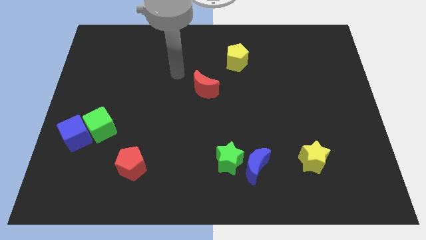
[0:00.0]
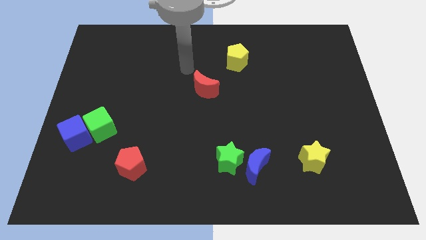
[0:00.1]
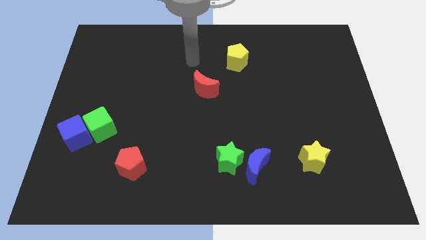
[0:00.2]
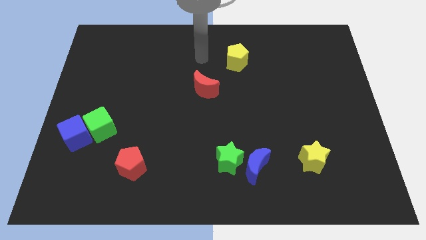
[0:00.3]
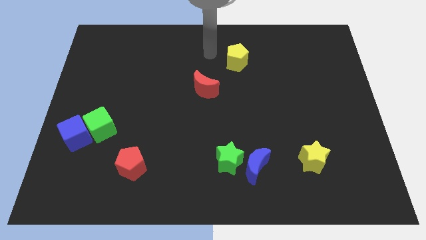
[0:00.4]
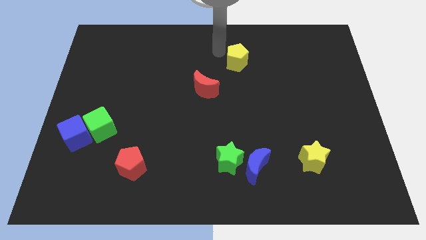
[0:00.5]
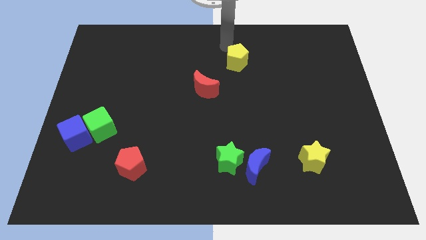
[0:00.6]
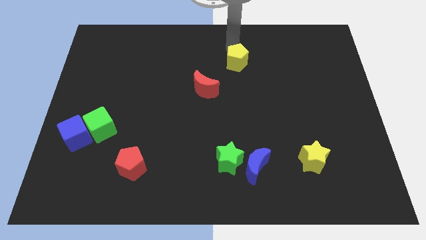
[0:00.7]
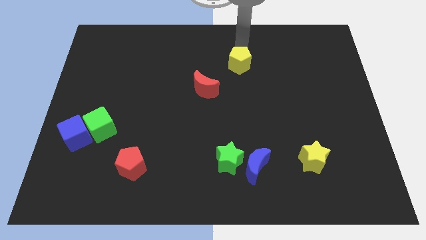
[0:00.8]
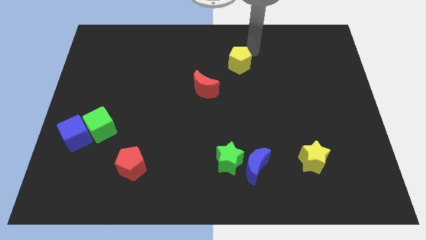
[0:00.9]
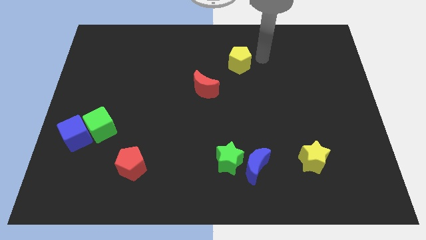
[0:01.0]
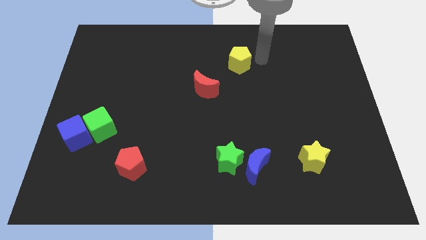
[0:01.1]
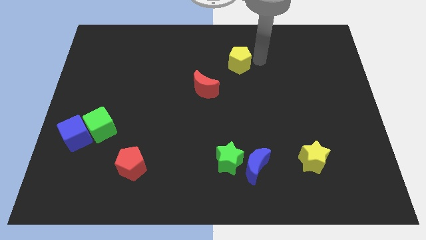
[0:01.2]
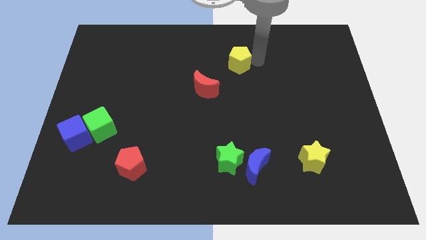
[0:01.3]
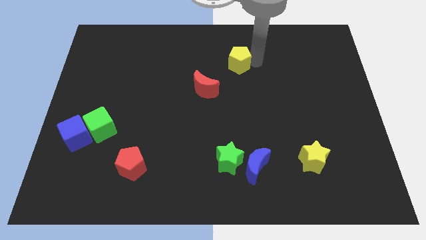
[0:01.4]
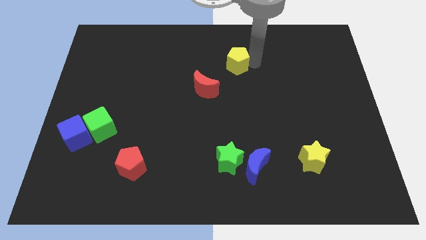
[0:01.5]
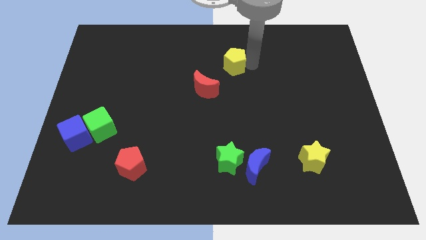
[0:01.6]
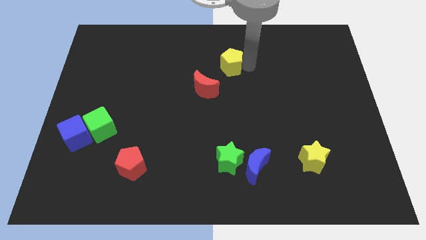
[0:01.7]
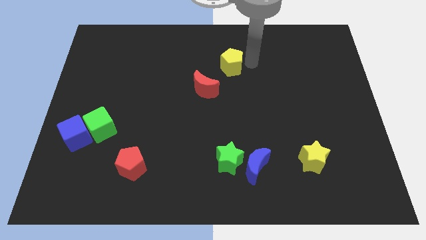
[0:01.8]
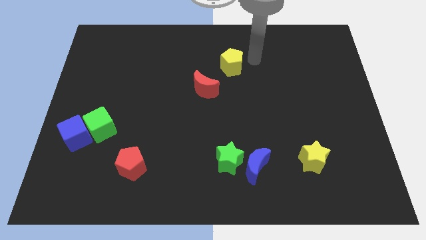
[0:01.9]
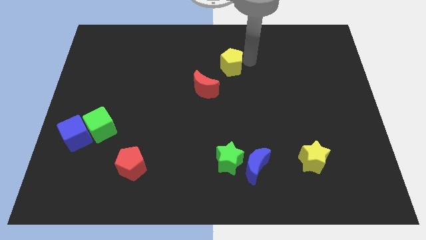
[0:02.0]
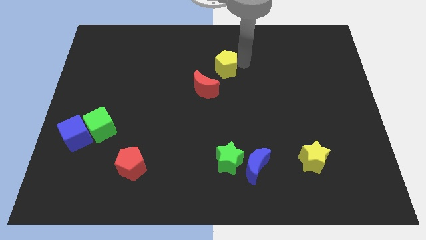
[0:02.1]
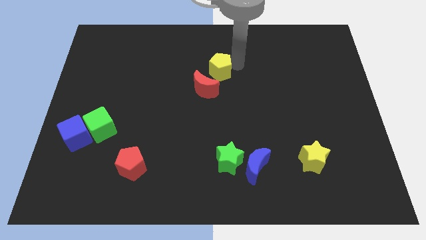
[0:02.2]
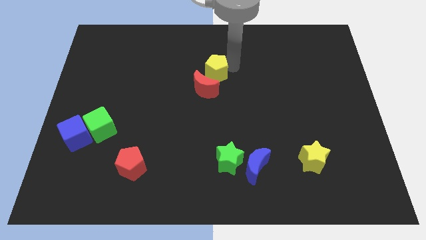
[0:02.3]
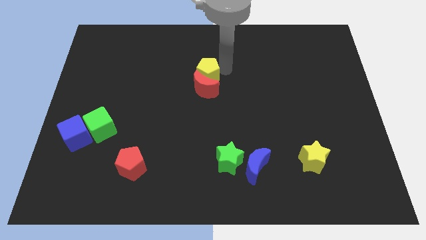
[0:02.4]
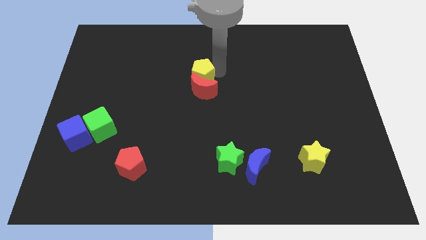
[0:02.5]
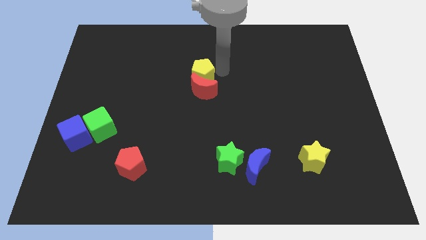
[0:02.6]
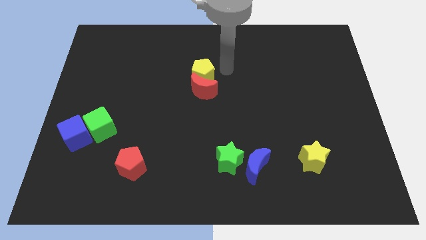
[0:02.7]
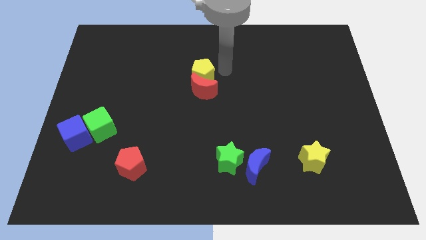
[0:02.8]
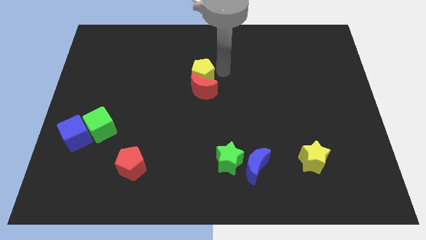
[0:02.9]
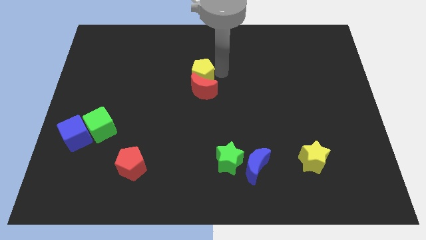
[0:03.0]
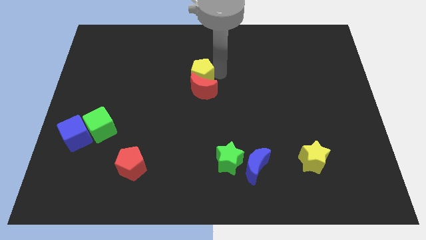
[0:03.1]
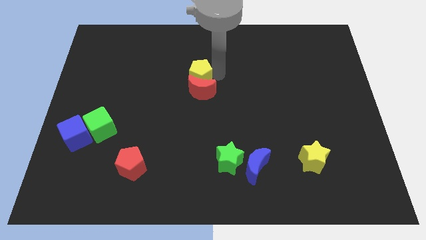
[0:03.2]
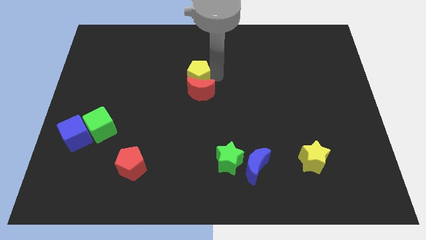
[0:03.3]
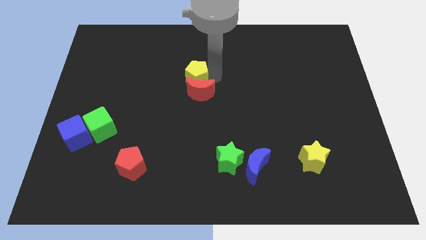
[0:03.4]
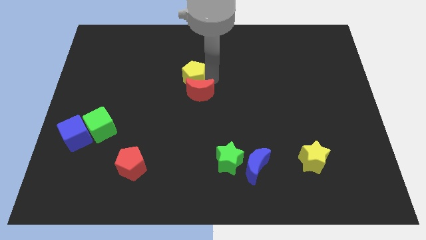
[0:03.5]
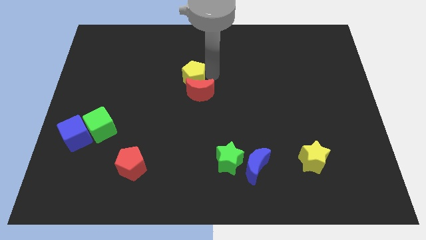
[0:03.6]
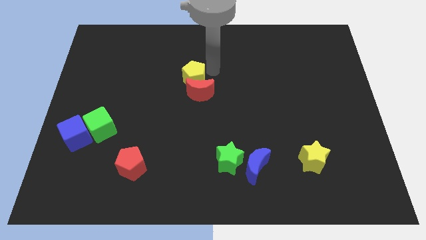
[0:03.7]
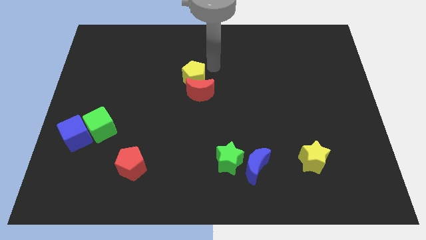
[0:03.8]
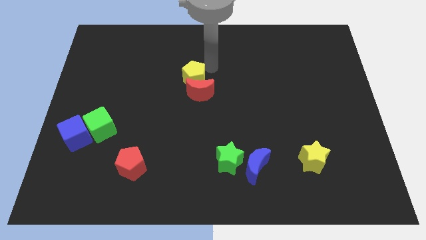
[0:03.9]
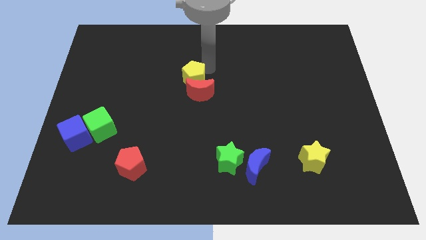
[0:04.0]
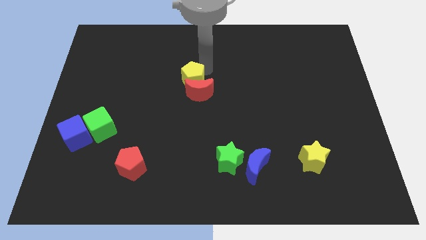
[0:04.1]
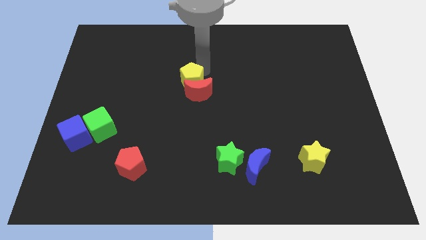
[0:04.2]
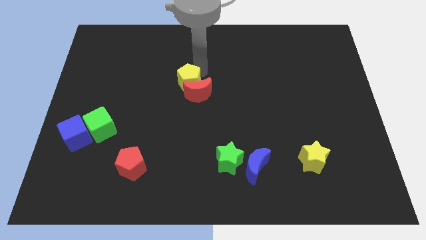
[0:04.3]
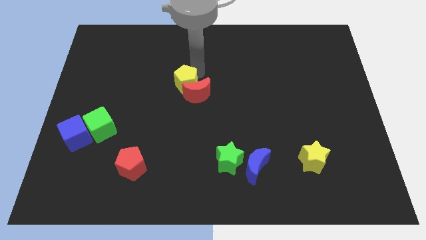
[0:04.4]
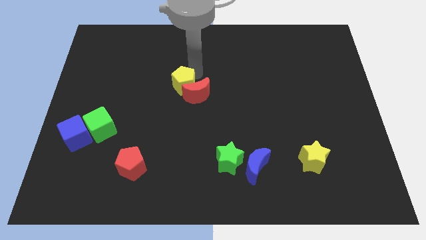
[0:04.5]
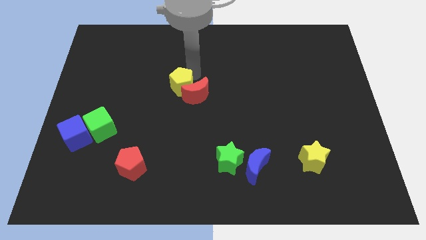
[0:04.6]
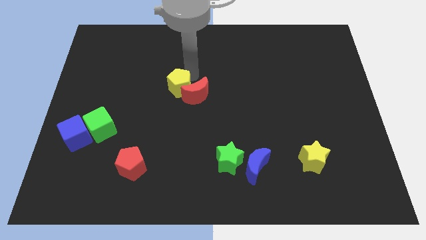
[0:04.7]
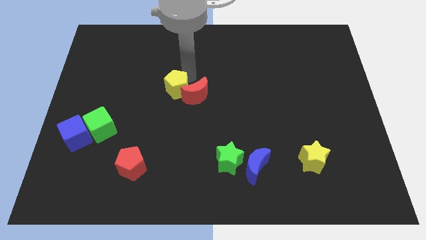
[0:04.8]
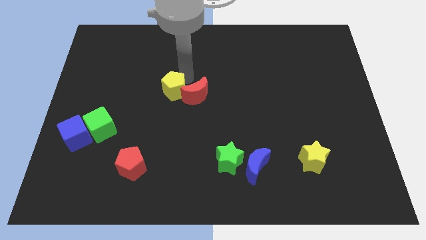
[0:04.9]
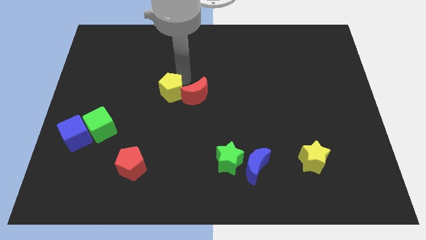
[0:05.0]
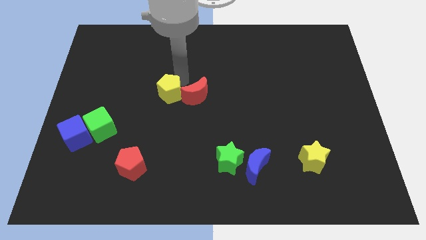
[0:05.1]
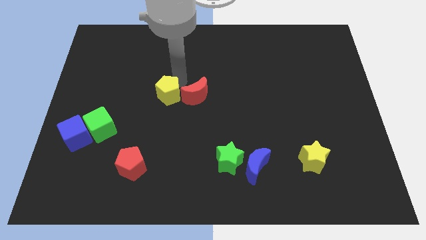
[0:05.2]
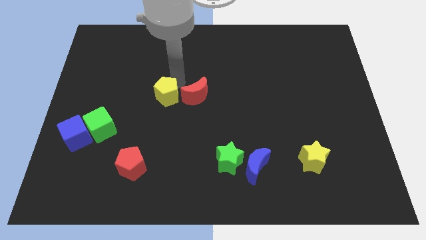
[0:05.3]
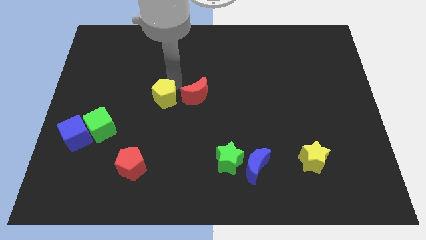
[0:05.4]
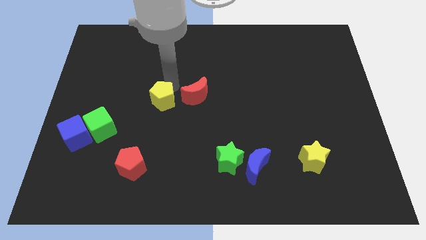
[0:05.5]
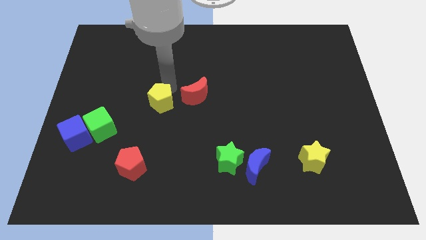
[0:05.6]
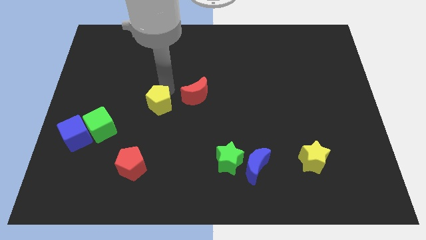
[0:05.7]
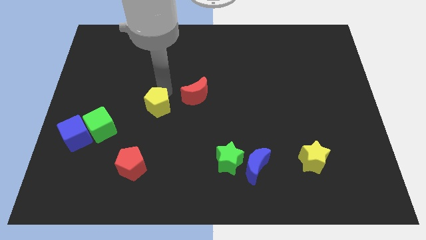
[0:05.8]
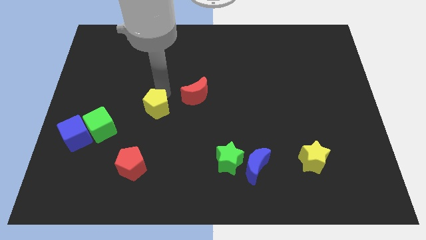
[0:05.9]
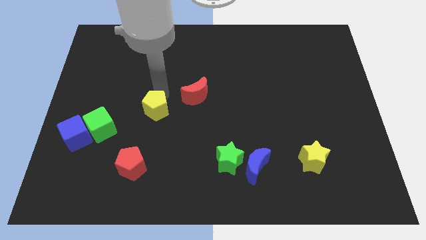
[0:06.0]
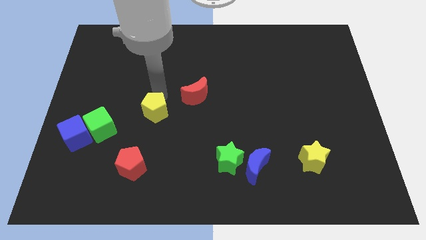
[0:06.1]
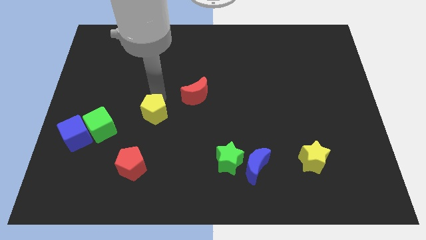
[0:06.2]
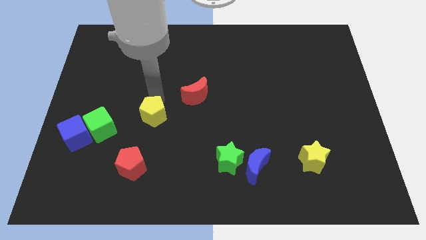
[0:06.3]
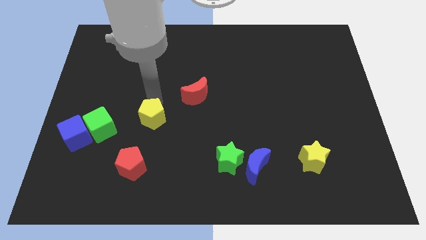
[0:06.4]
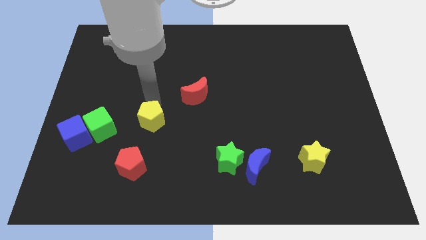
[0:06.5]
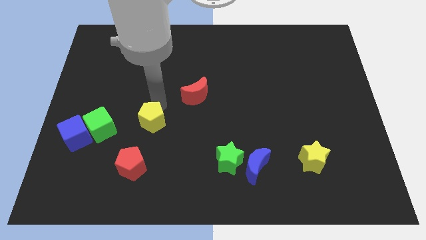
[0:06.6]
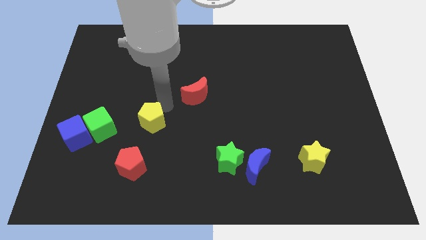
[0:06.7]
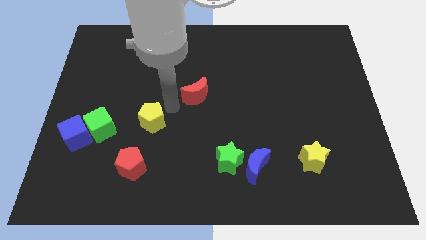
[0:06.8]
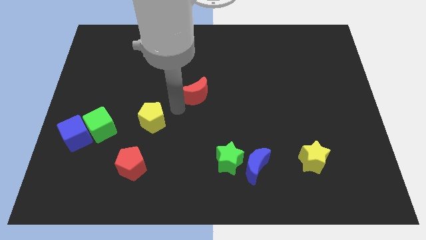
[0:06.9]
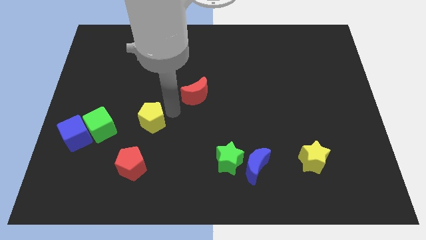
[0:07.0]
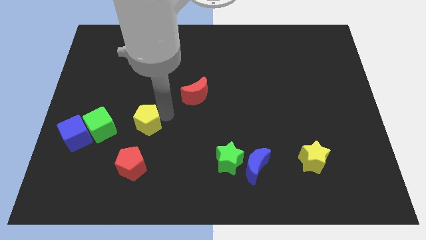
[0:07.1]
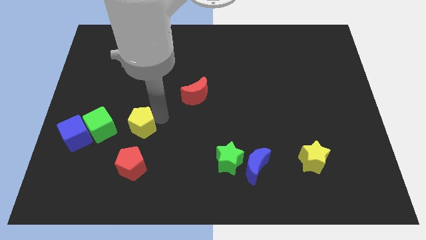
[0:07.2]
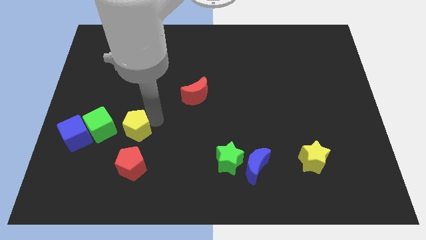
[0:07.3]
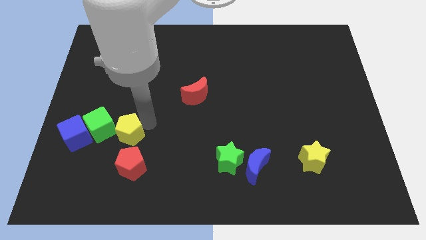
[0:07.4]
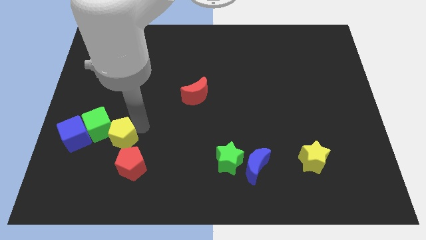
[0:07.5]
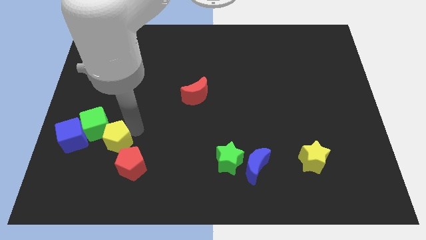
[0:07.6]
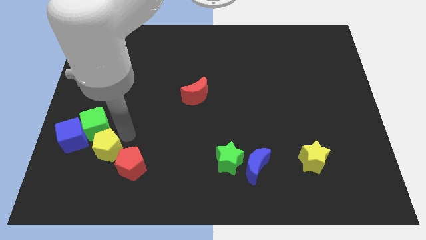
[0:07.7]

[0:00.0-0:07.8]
slide the yellow pentagon to the bottom side of the green cube

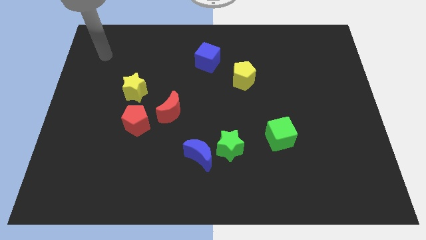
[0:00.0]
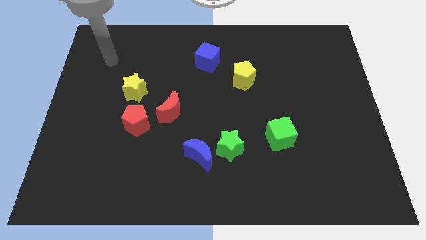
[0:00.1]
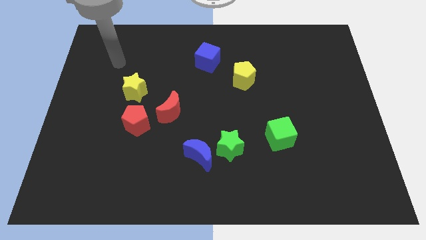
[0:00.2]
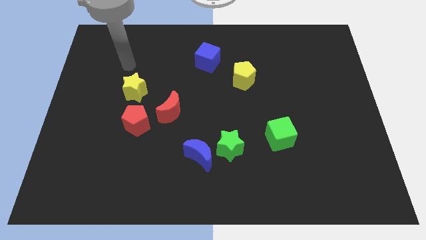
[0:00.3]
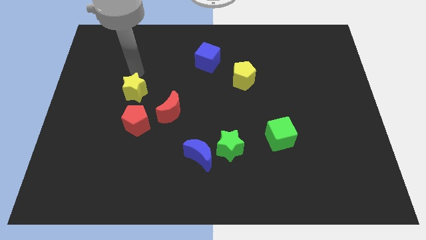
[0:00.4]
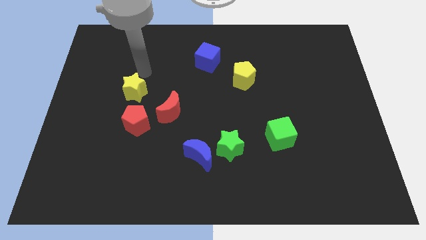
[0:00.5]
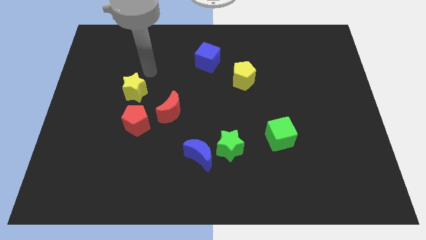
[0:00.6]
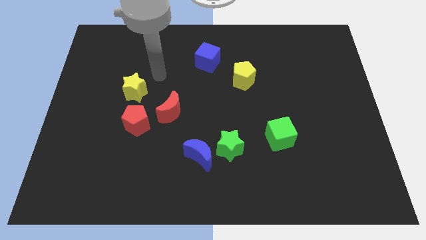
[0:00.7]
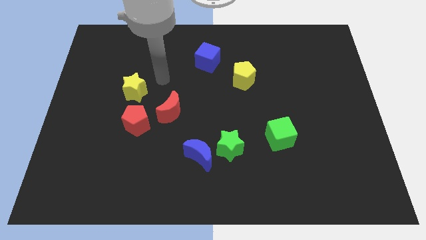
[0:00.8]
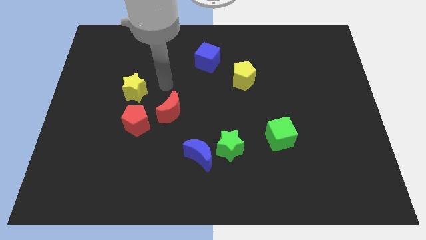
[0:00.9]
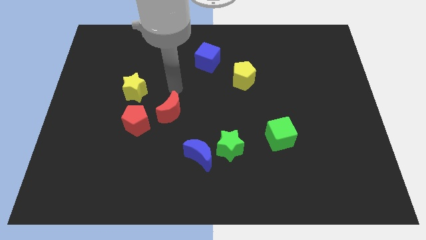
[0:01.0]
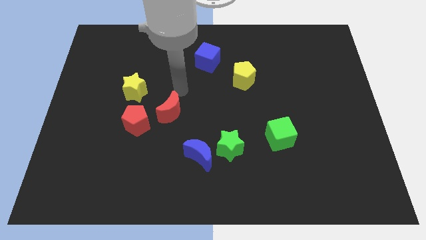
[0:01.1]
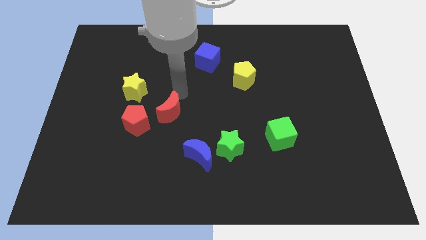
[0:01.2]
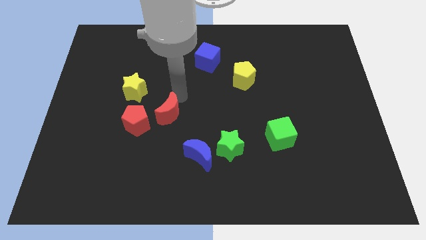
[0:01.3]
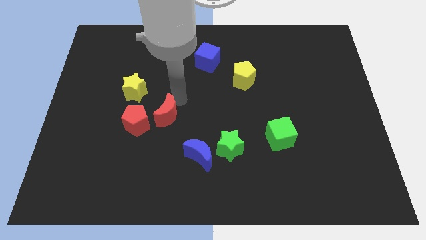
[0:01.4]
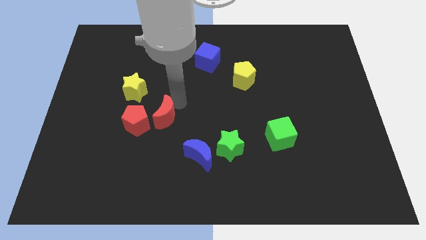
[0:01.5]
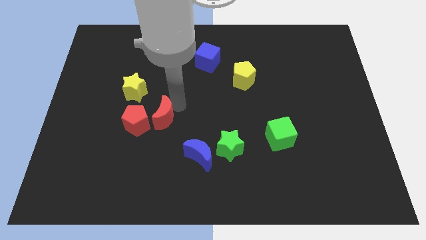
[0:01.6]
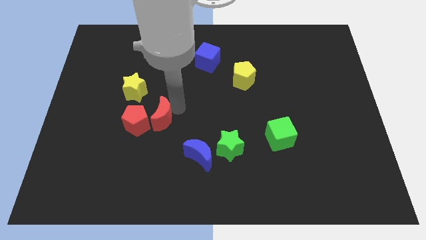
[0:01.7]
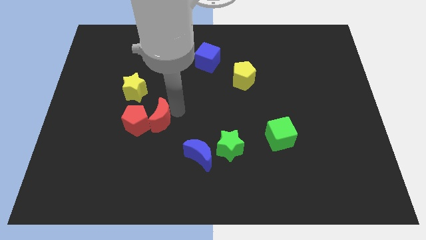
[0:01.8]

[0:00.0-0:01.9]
slide the red moon to the bottom right of the red pentagon
